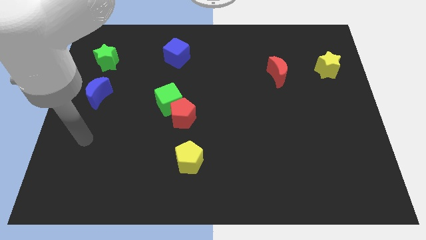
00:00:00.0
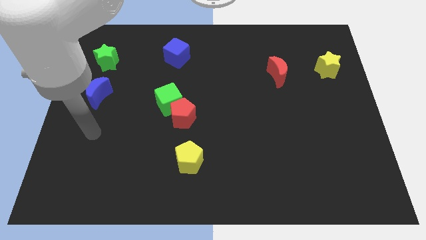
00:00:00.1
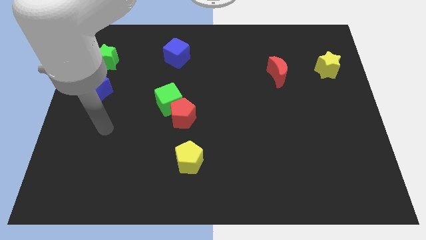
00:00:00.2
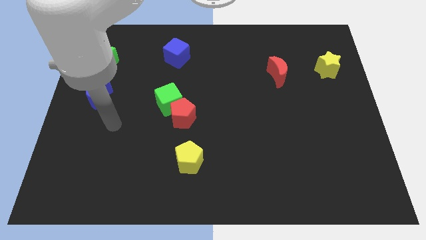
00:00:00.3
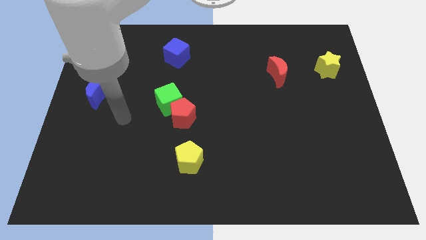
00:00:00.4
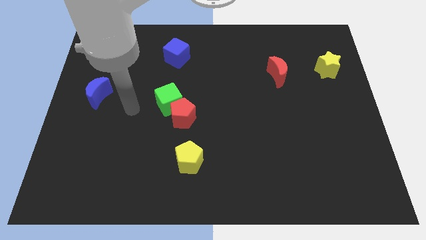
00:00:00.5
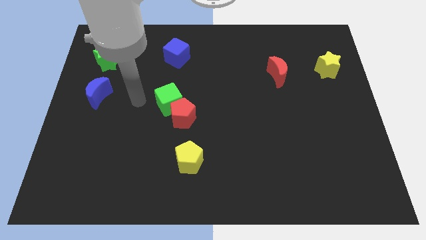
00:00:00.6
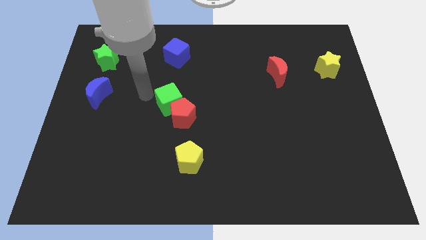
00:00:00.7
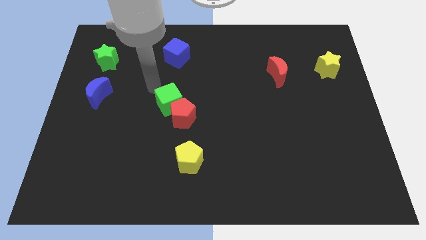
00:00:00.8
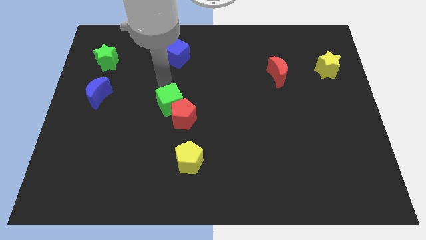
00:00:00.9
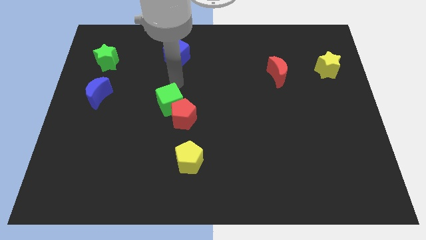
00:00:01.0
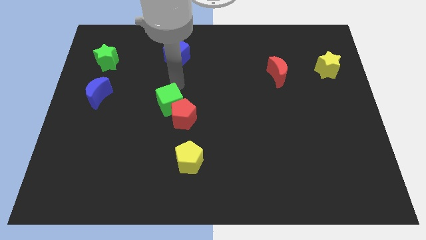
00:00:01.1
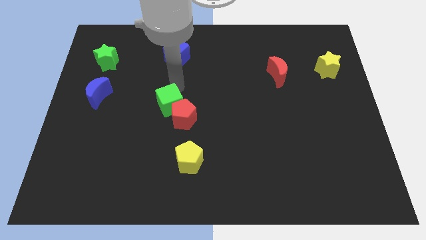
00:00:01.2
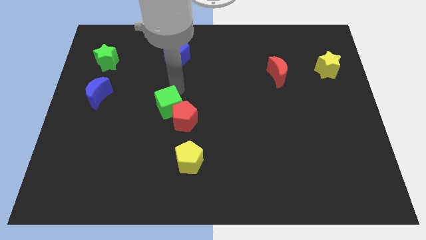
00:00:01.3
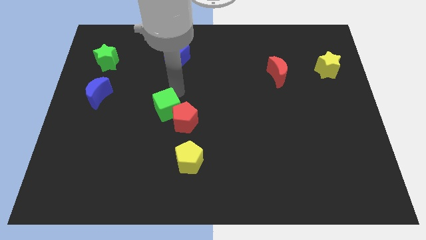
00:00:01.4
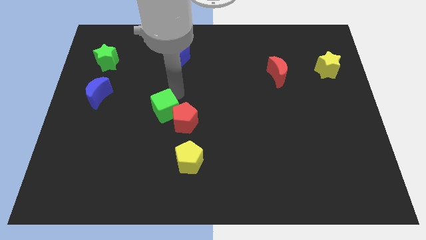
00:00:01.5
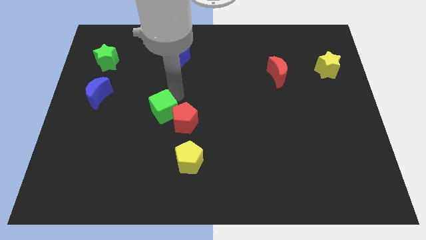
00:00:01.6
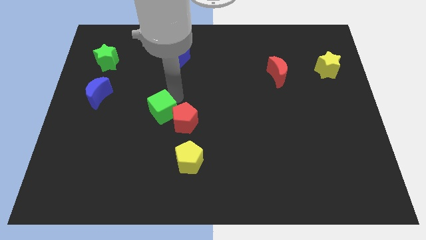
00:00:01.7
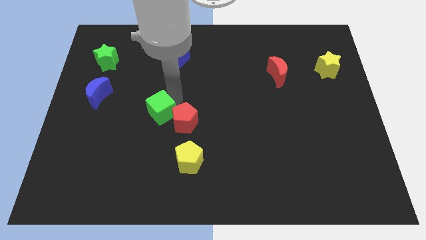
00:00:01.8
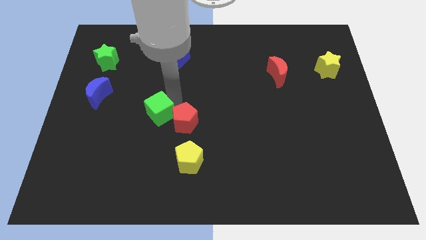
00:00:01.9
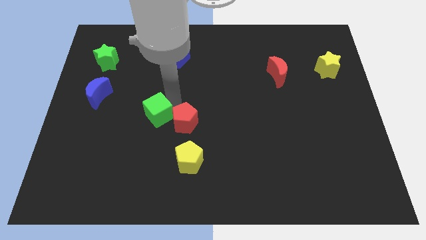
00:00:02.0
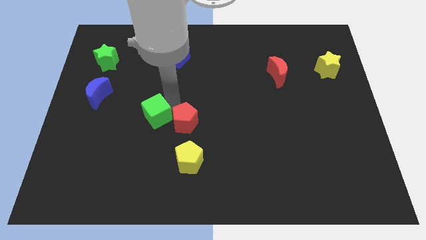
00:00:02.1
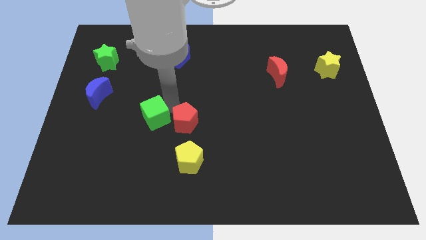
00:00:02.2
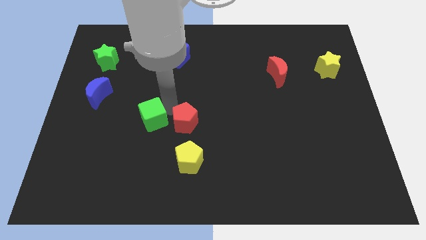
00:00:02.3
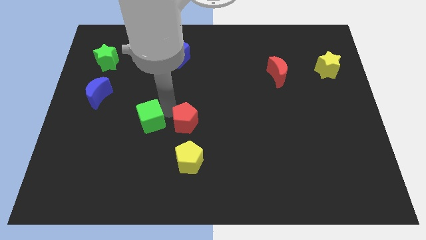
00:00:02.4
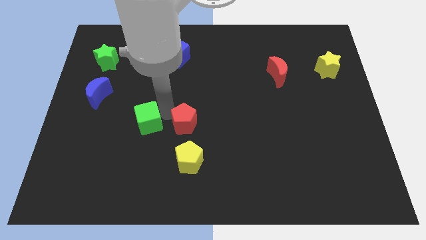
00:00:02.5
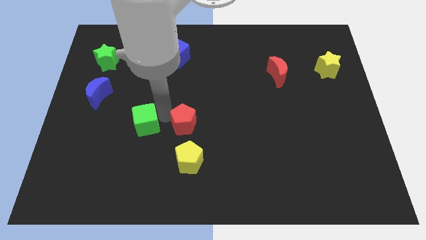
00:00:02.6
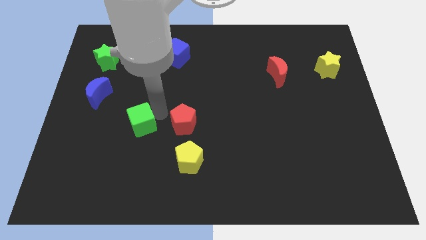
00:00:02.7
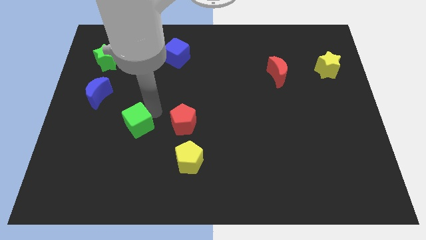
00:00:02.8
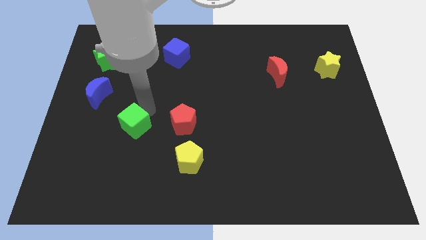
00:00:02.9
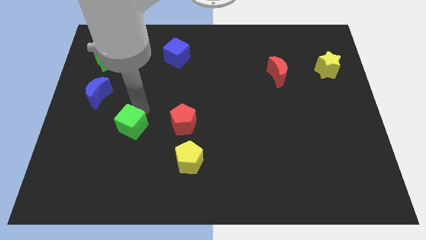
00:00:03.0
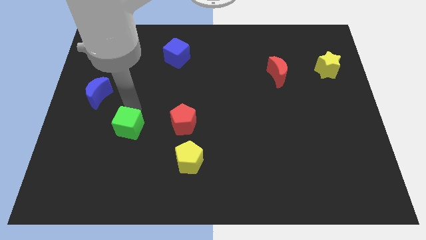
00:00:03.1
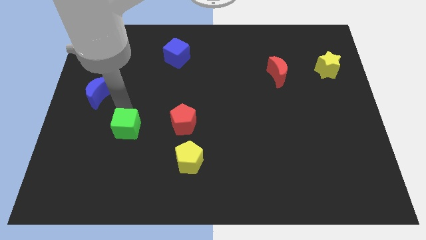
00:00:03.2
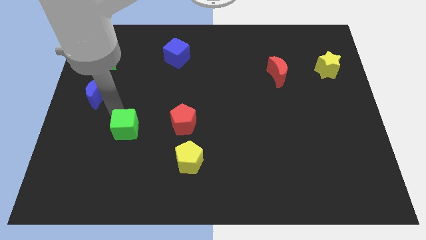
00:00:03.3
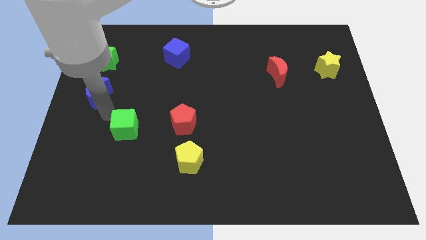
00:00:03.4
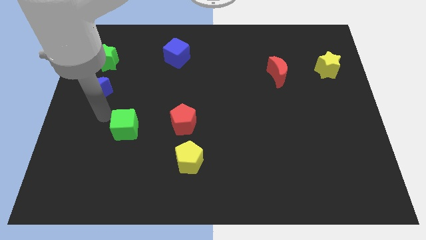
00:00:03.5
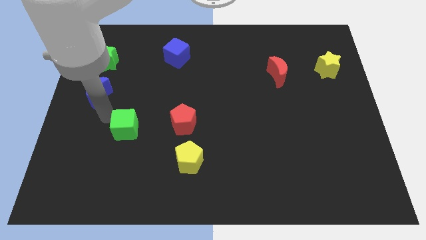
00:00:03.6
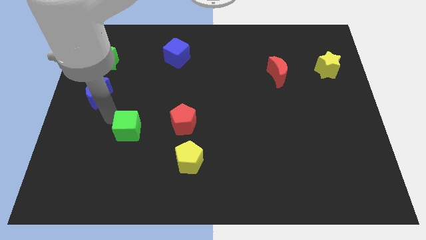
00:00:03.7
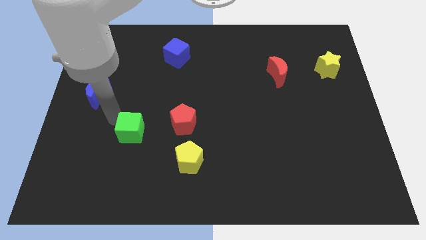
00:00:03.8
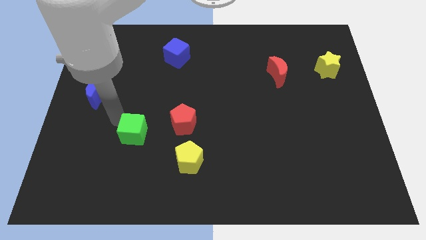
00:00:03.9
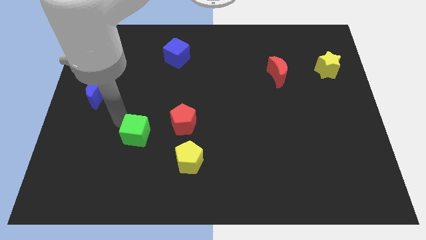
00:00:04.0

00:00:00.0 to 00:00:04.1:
move the green cube a little bit down

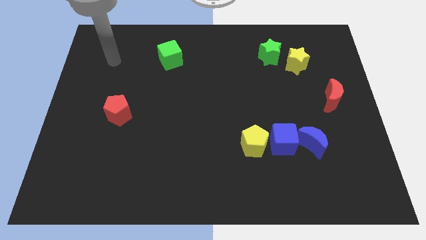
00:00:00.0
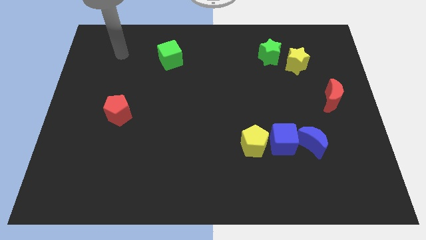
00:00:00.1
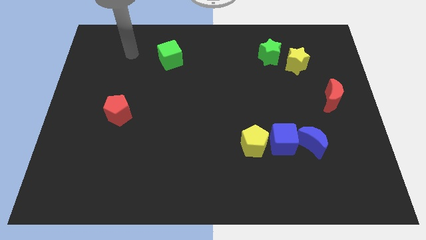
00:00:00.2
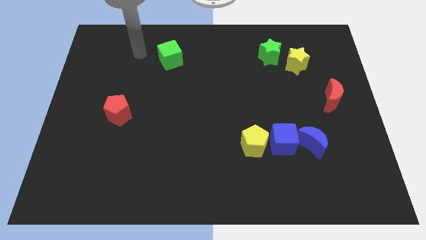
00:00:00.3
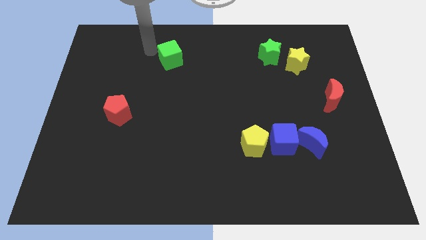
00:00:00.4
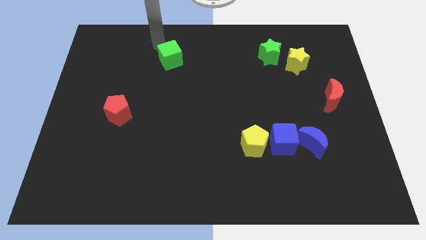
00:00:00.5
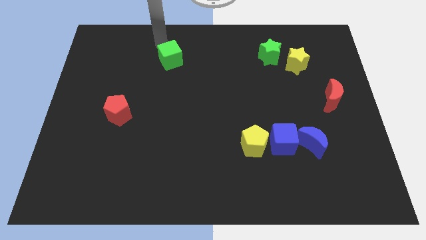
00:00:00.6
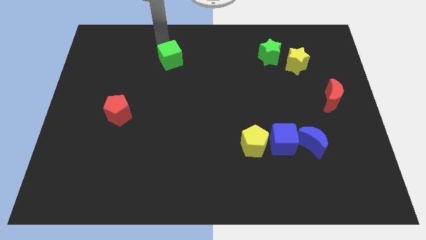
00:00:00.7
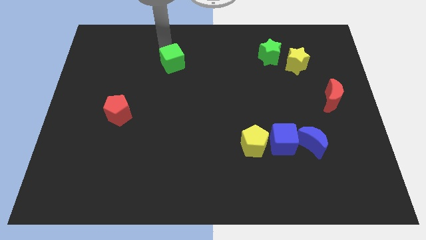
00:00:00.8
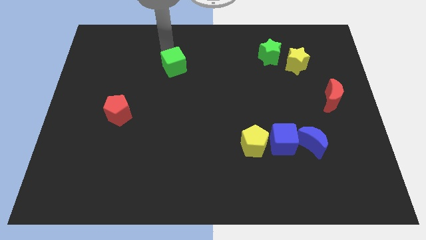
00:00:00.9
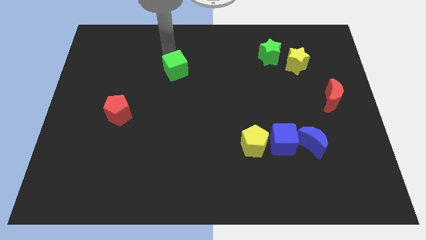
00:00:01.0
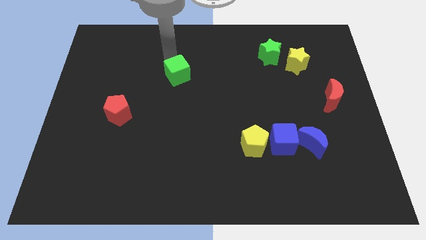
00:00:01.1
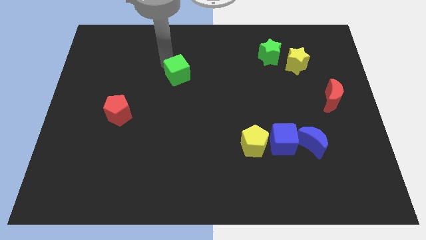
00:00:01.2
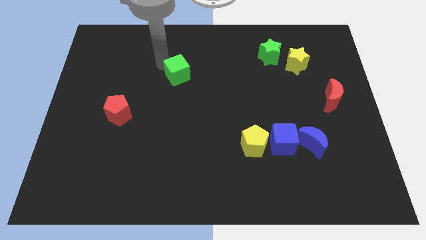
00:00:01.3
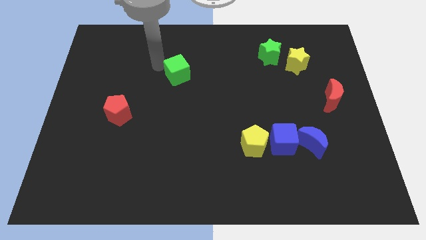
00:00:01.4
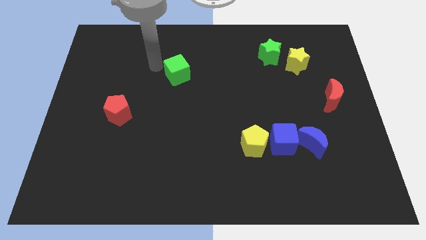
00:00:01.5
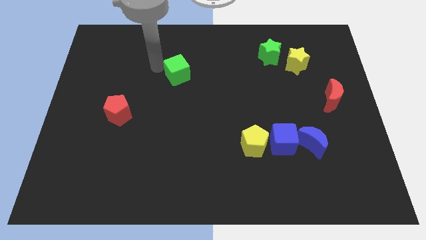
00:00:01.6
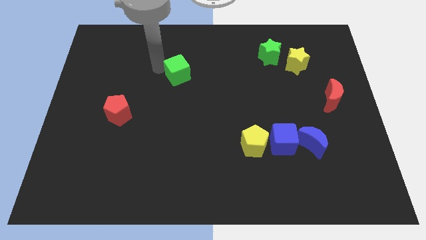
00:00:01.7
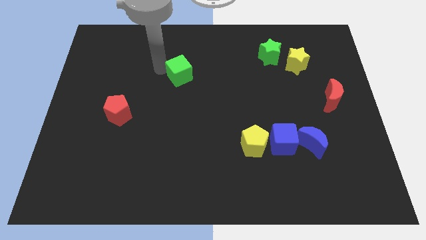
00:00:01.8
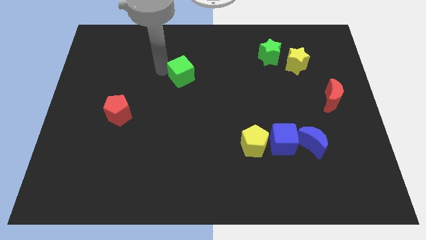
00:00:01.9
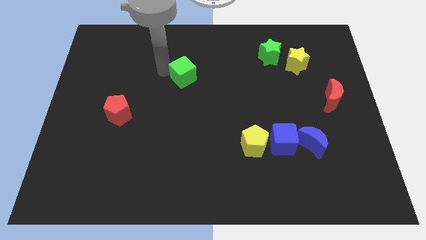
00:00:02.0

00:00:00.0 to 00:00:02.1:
move the green cube down and to the right diagonally a bit

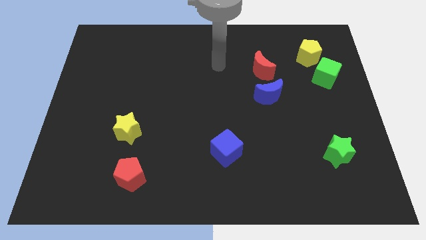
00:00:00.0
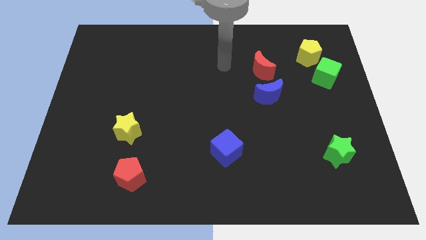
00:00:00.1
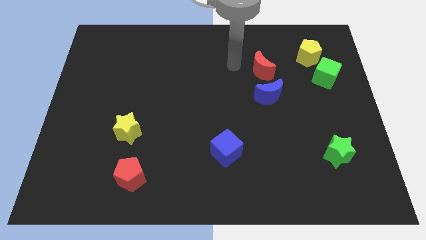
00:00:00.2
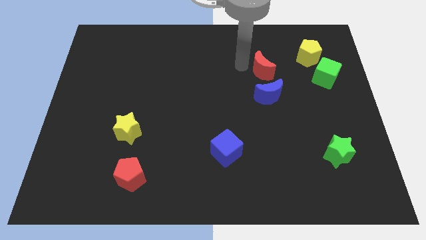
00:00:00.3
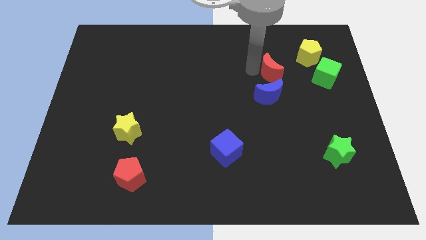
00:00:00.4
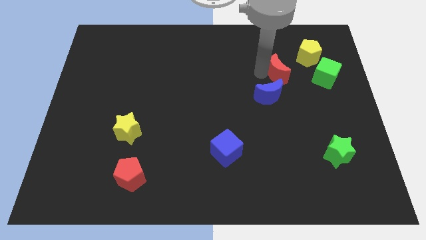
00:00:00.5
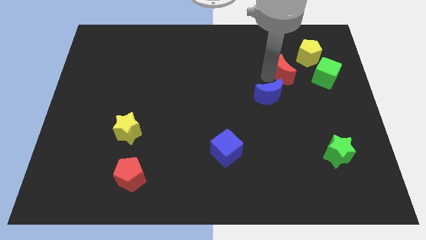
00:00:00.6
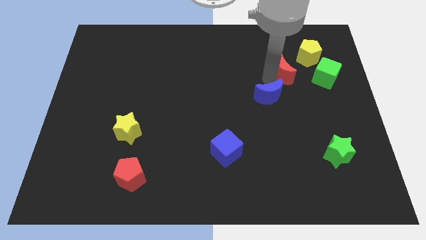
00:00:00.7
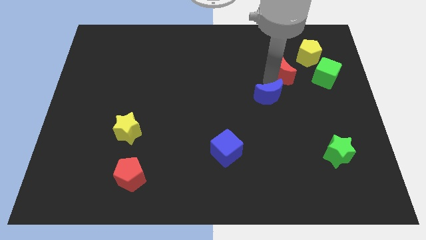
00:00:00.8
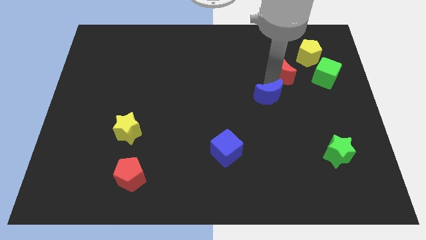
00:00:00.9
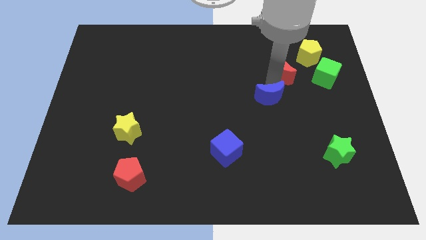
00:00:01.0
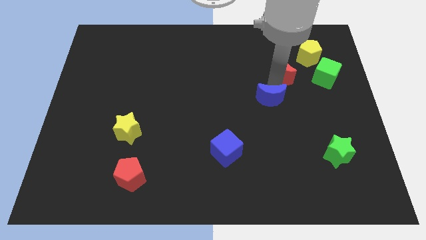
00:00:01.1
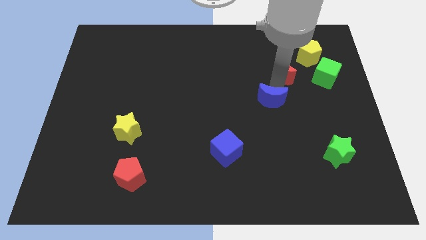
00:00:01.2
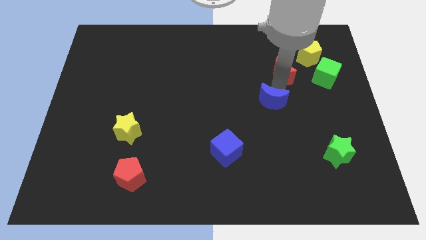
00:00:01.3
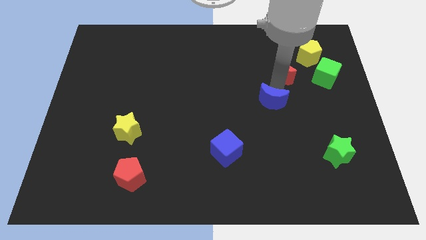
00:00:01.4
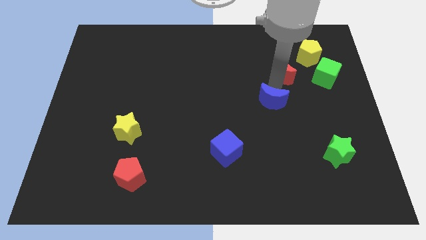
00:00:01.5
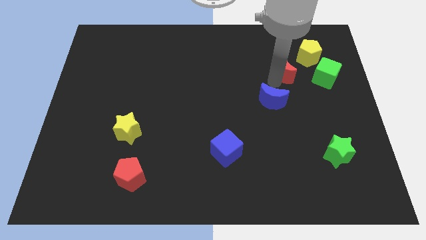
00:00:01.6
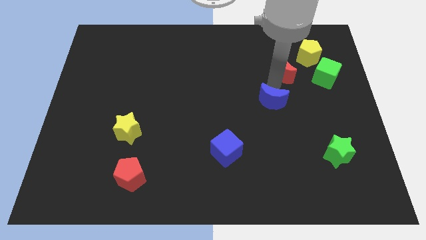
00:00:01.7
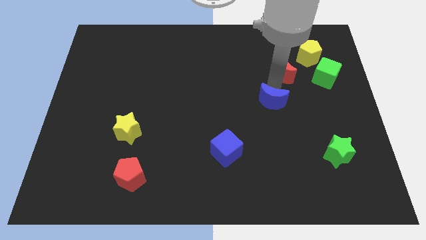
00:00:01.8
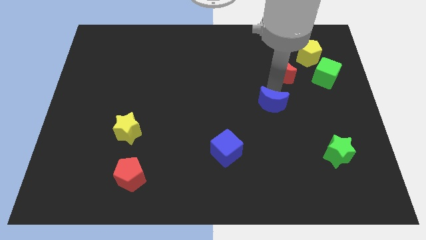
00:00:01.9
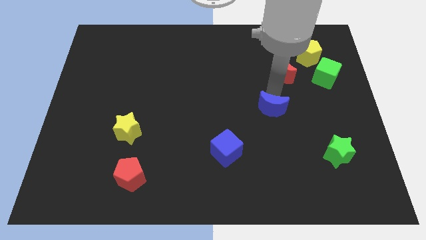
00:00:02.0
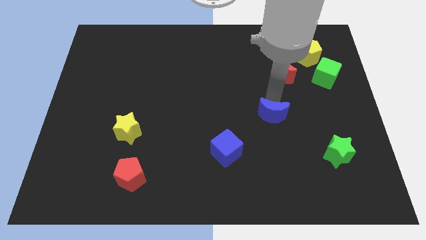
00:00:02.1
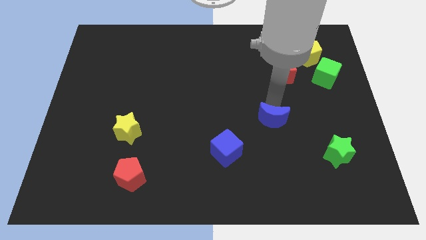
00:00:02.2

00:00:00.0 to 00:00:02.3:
slide the blue moon down a little
